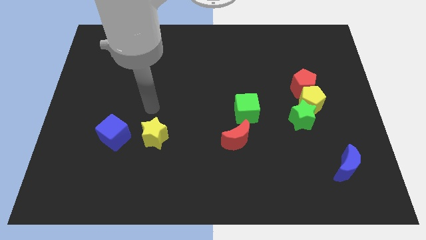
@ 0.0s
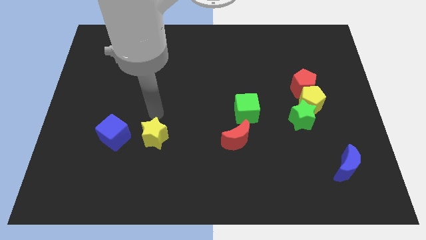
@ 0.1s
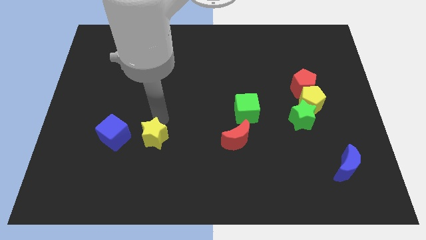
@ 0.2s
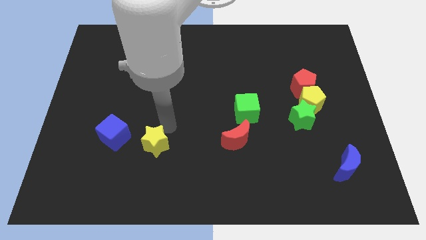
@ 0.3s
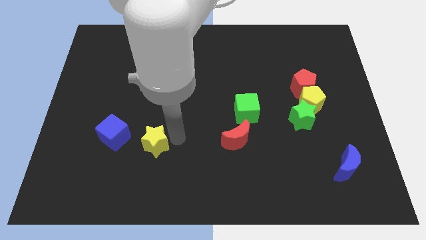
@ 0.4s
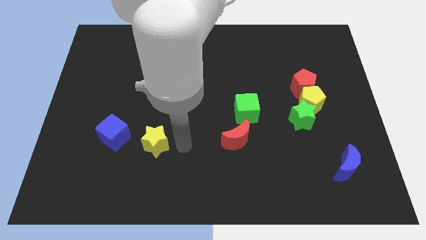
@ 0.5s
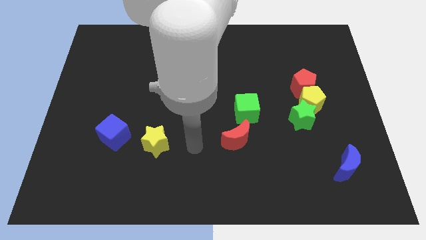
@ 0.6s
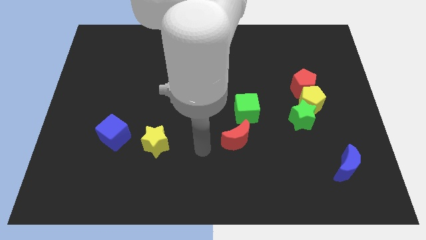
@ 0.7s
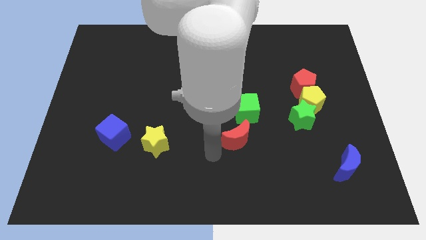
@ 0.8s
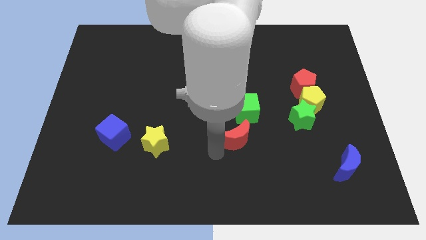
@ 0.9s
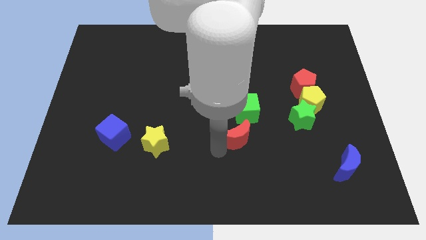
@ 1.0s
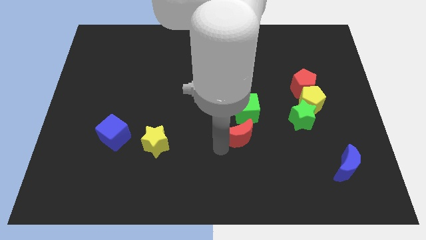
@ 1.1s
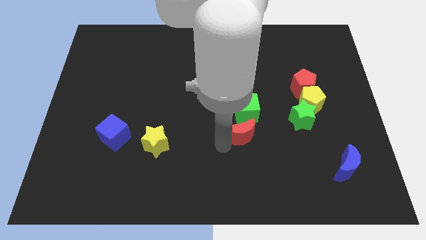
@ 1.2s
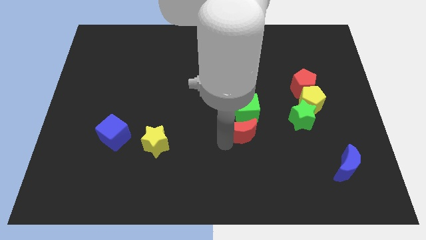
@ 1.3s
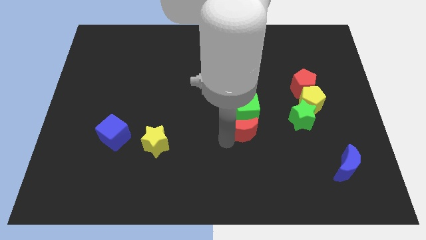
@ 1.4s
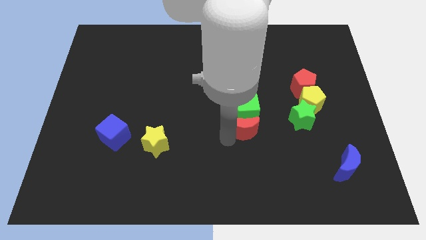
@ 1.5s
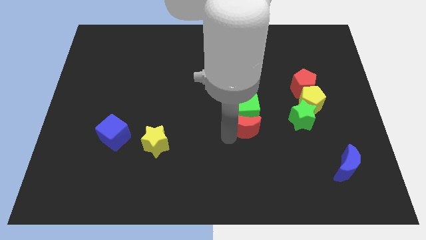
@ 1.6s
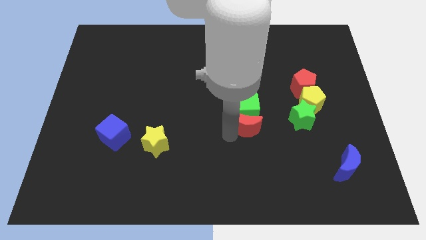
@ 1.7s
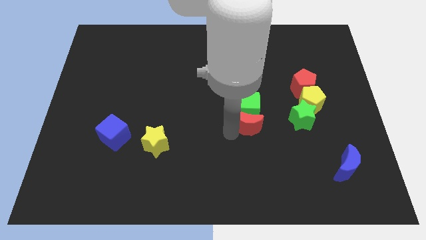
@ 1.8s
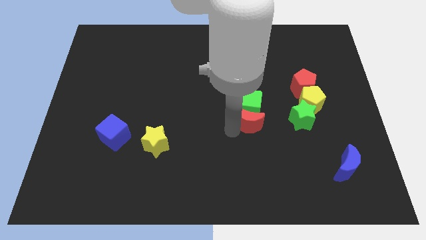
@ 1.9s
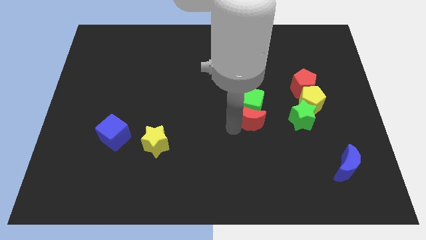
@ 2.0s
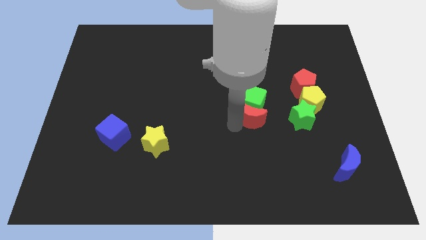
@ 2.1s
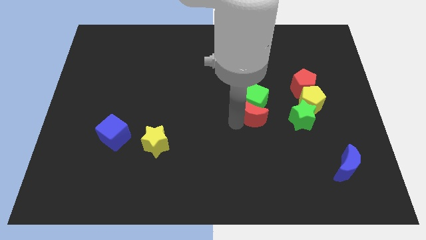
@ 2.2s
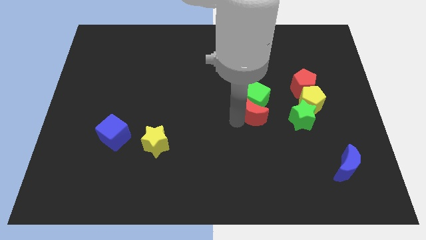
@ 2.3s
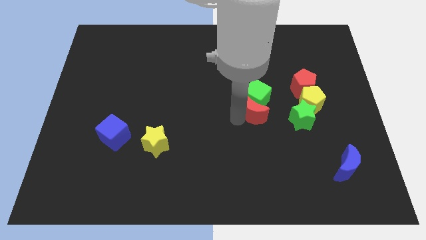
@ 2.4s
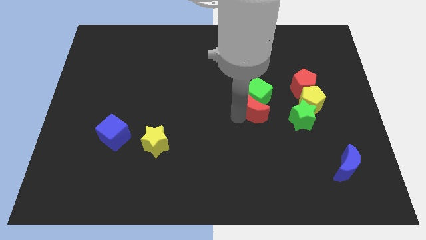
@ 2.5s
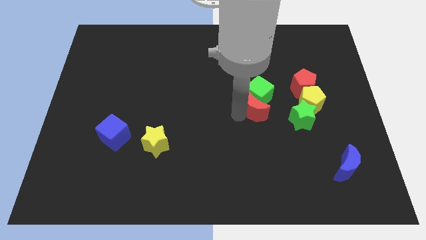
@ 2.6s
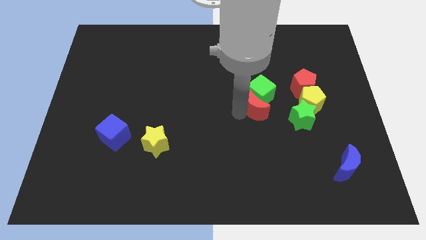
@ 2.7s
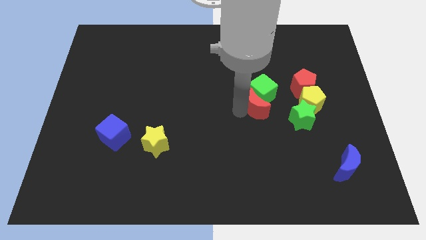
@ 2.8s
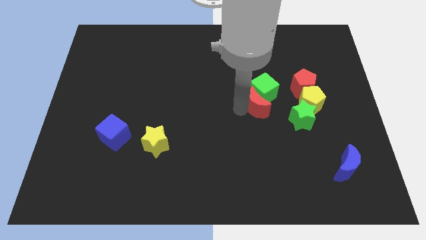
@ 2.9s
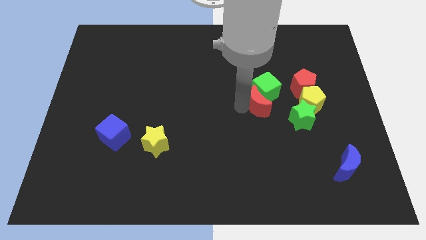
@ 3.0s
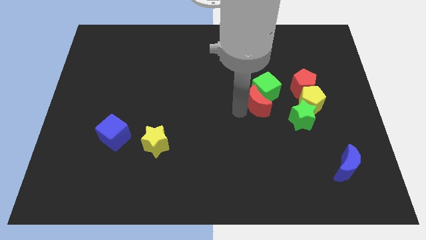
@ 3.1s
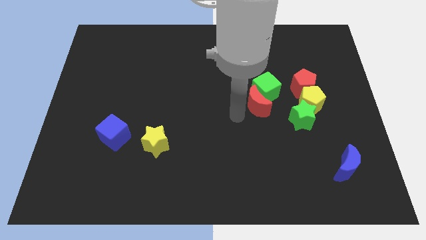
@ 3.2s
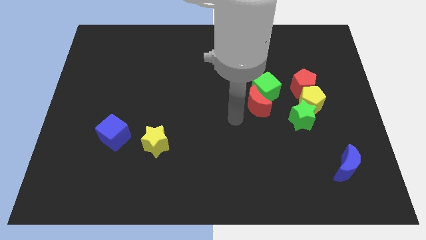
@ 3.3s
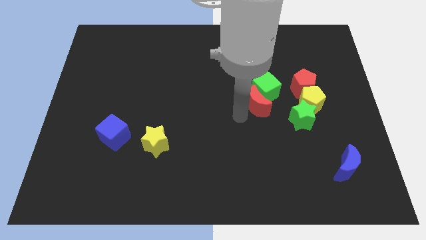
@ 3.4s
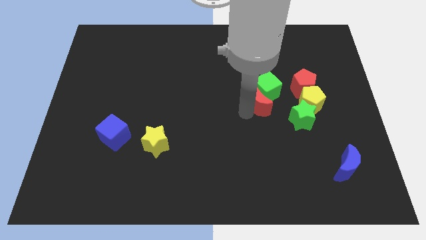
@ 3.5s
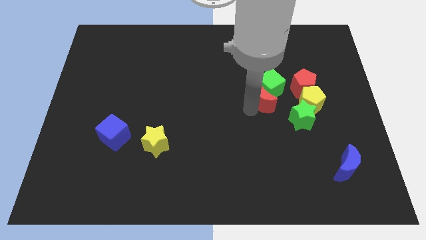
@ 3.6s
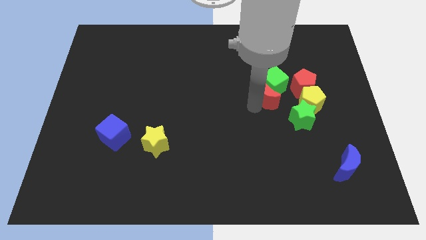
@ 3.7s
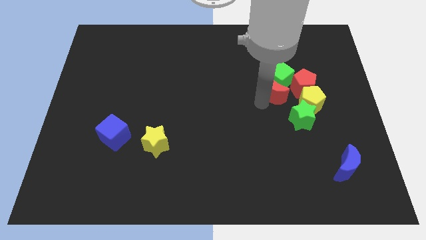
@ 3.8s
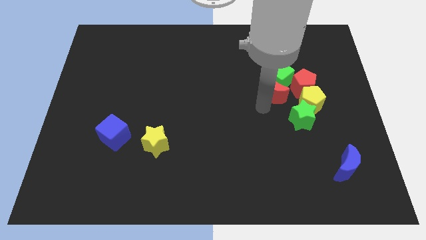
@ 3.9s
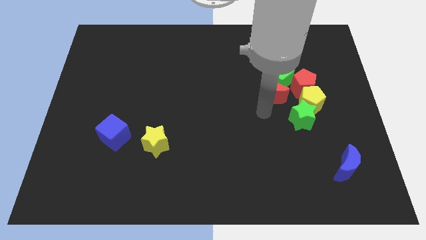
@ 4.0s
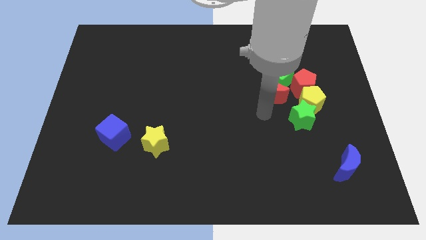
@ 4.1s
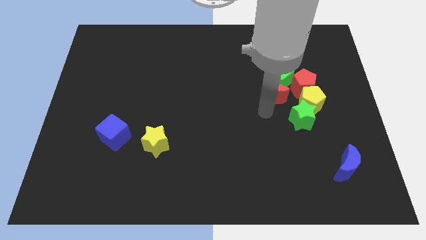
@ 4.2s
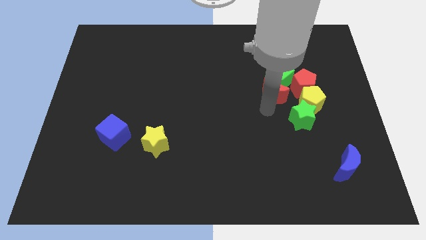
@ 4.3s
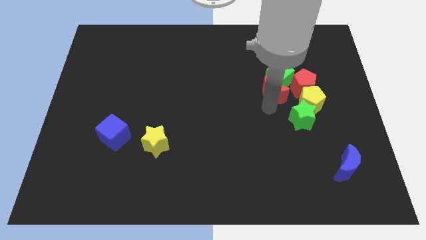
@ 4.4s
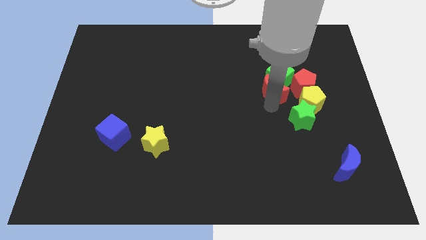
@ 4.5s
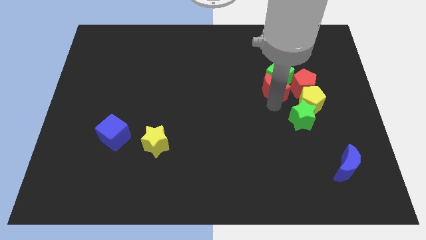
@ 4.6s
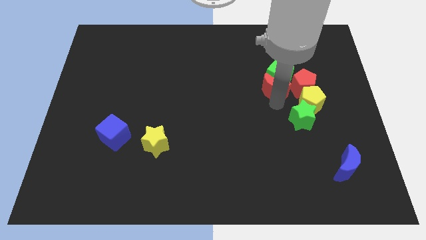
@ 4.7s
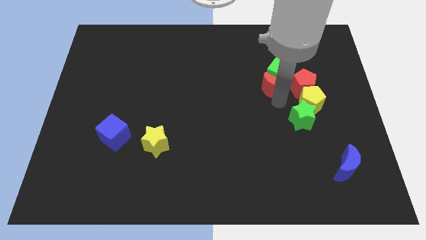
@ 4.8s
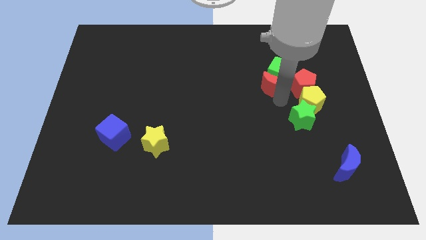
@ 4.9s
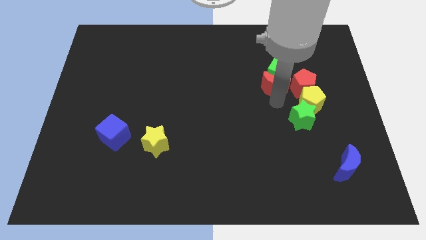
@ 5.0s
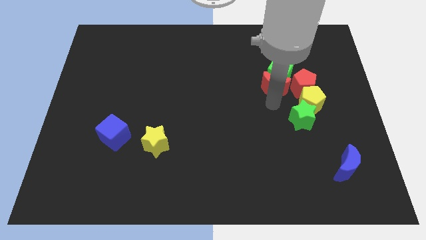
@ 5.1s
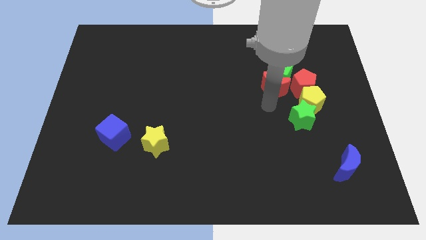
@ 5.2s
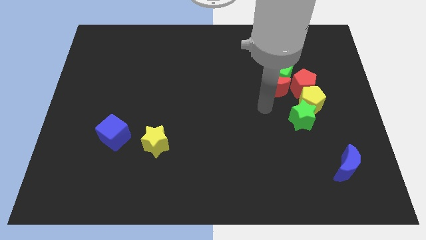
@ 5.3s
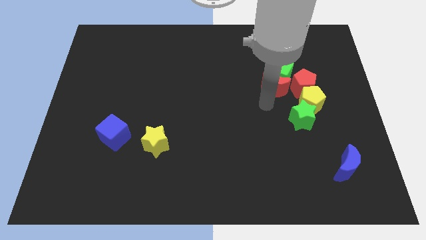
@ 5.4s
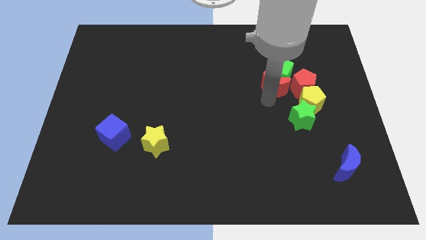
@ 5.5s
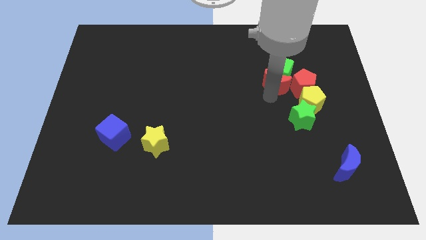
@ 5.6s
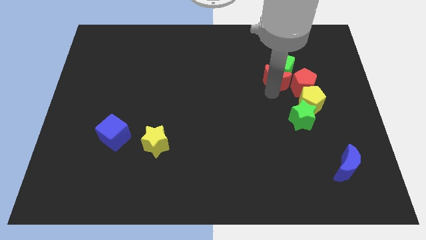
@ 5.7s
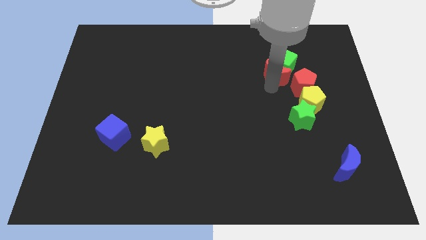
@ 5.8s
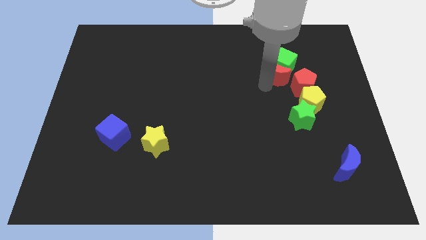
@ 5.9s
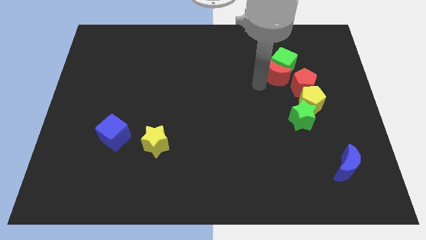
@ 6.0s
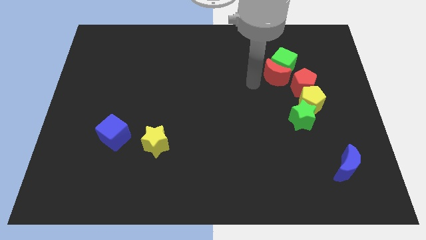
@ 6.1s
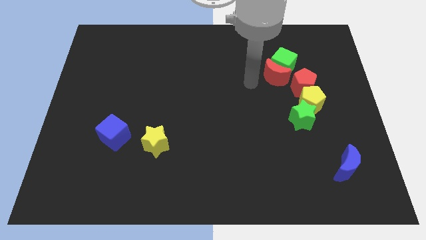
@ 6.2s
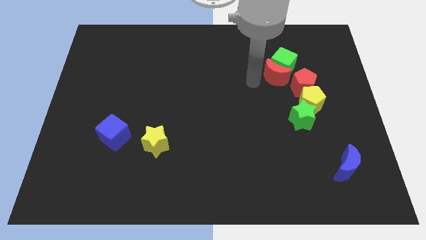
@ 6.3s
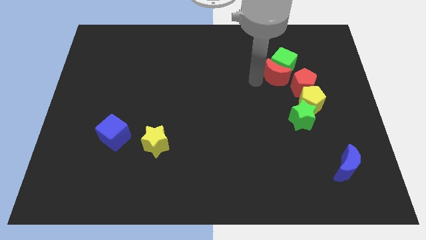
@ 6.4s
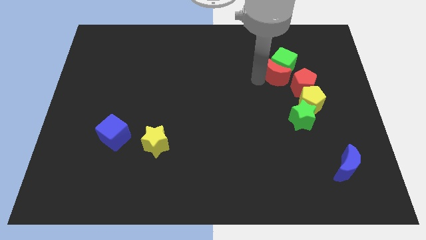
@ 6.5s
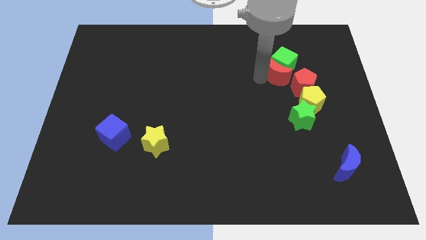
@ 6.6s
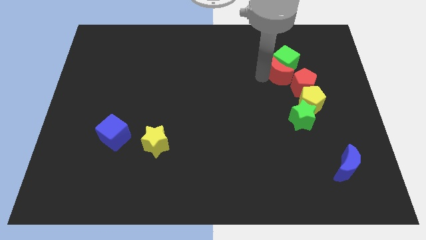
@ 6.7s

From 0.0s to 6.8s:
move the red moon diagonally up and right

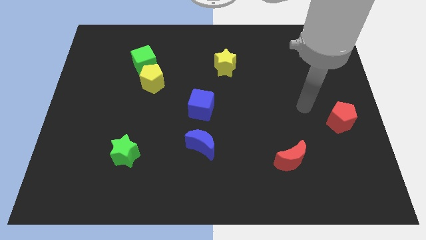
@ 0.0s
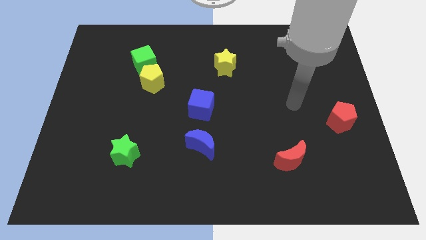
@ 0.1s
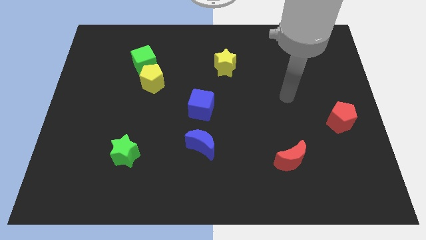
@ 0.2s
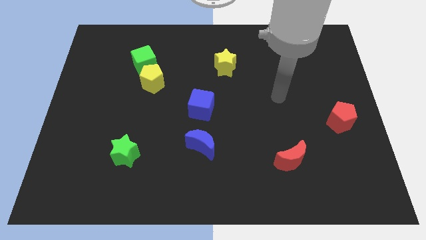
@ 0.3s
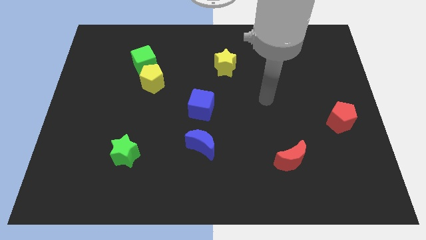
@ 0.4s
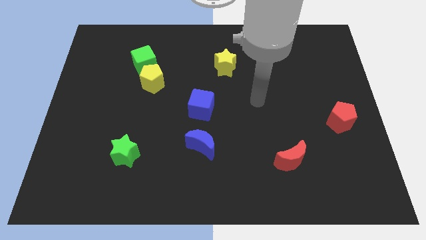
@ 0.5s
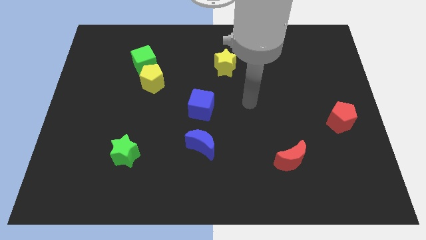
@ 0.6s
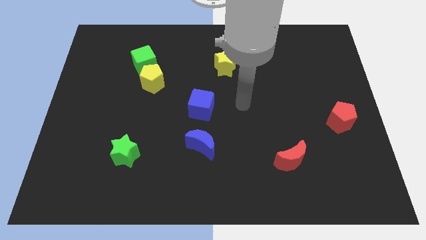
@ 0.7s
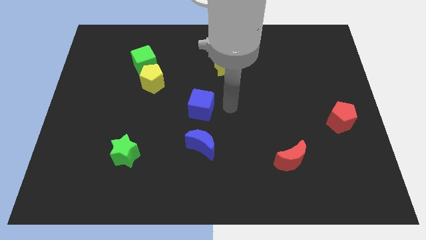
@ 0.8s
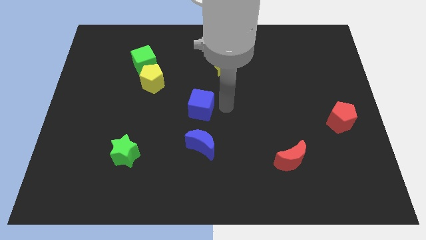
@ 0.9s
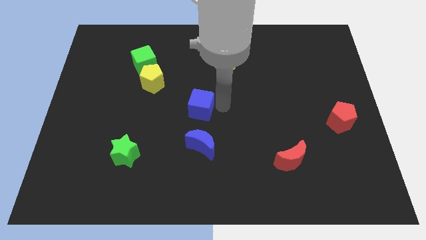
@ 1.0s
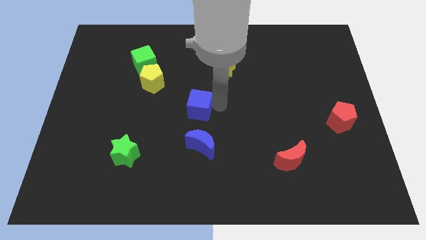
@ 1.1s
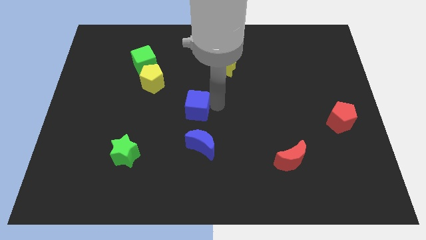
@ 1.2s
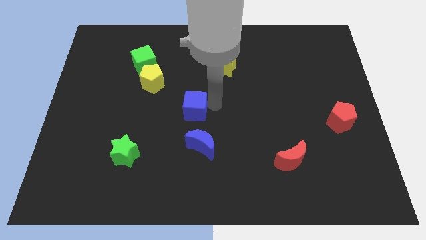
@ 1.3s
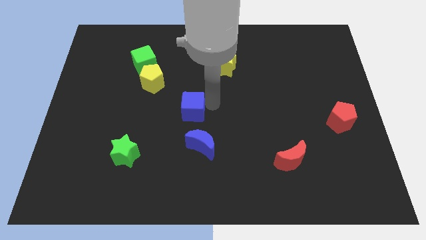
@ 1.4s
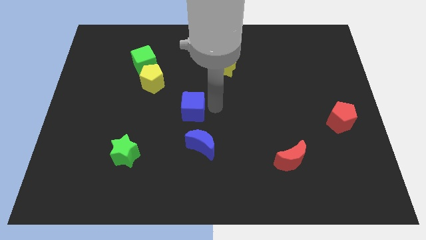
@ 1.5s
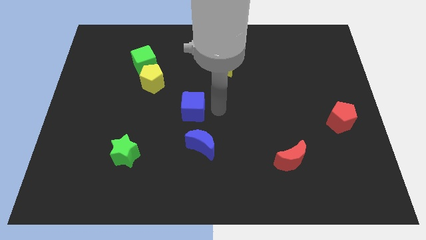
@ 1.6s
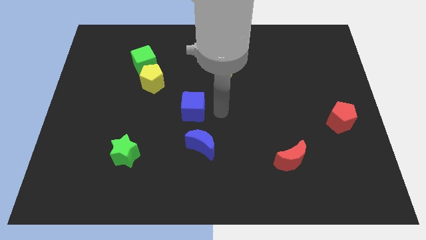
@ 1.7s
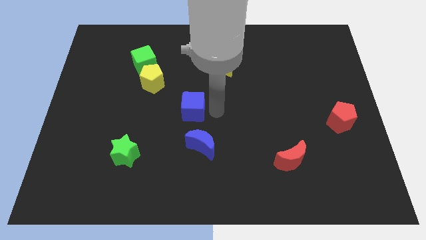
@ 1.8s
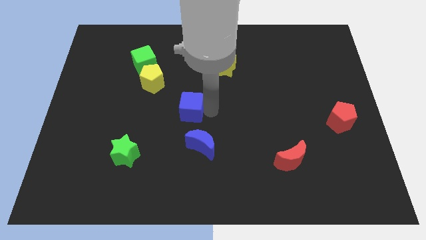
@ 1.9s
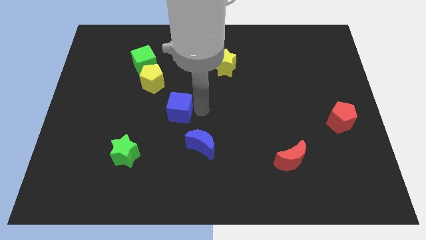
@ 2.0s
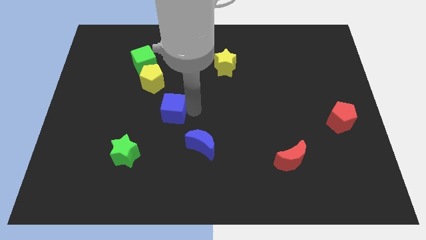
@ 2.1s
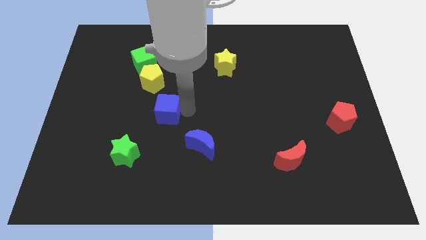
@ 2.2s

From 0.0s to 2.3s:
push the blue cube left slightly
